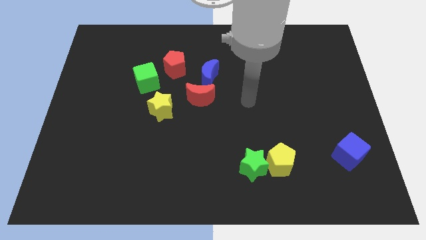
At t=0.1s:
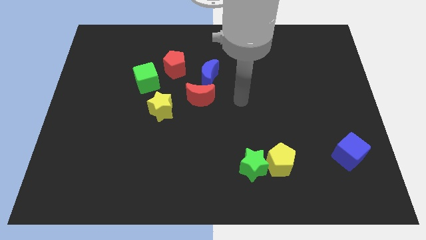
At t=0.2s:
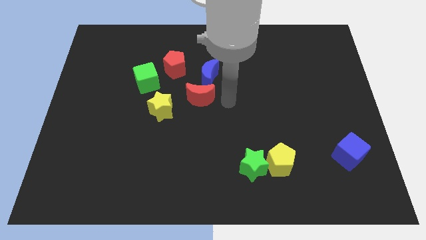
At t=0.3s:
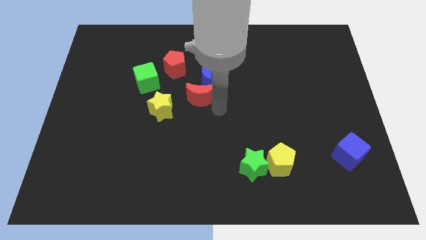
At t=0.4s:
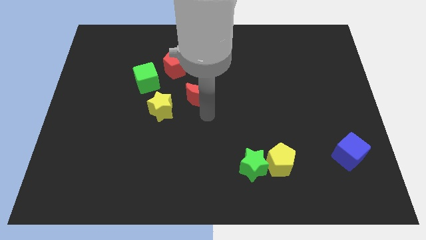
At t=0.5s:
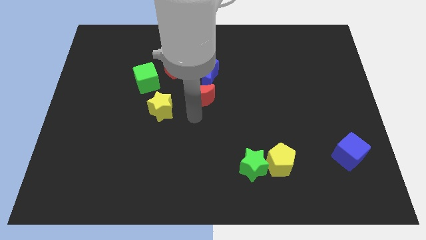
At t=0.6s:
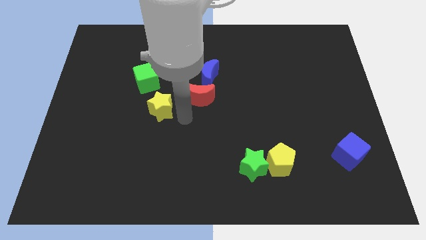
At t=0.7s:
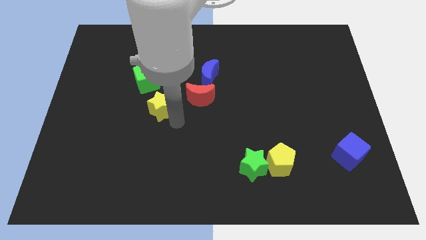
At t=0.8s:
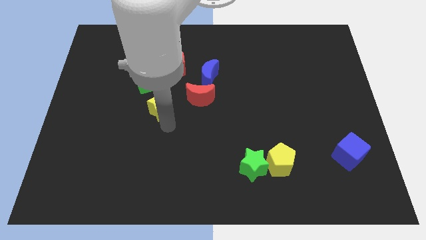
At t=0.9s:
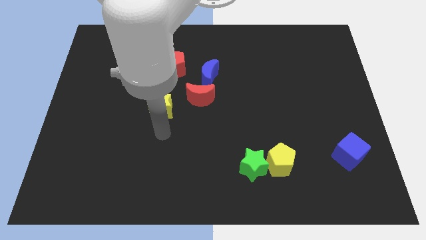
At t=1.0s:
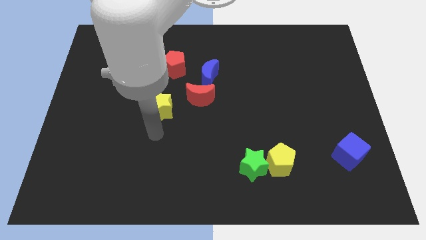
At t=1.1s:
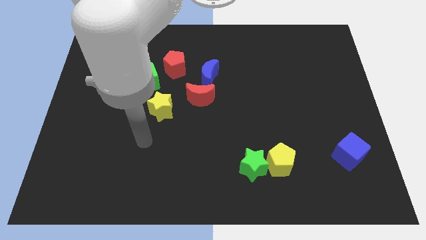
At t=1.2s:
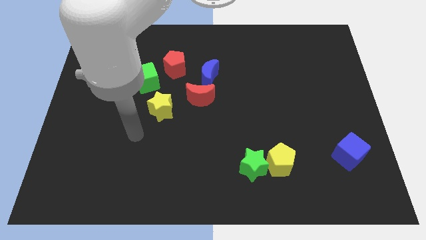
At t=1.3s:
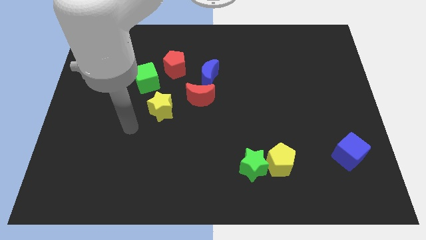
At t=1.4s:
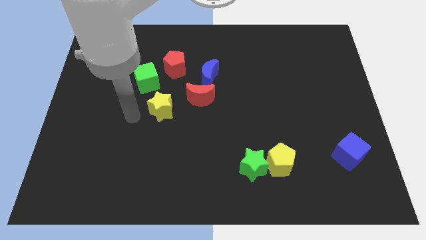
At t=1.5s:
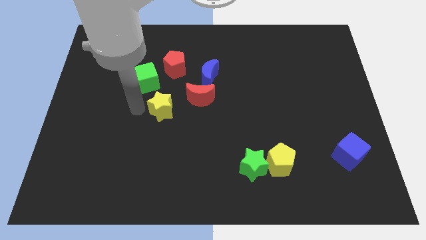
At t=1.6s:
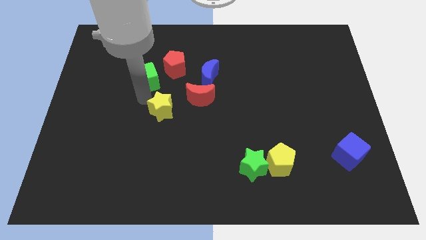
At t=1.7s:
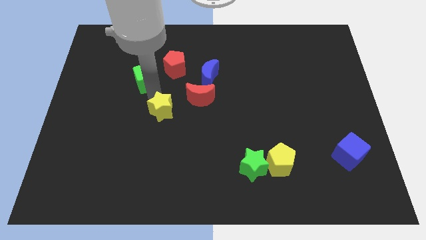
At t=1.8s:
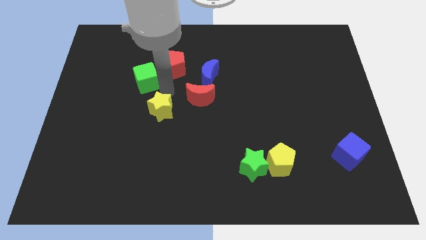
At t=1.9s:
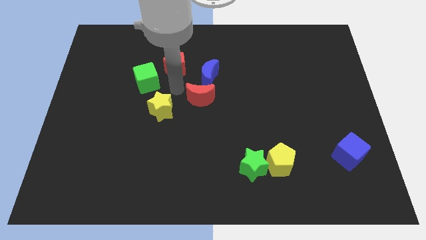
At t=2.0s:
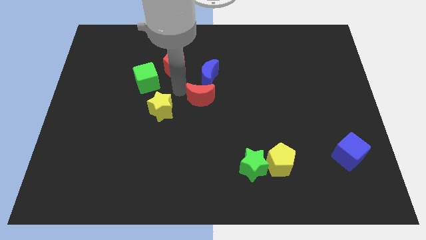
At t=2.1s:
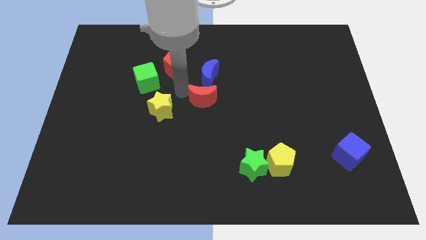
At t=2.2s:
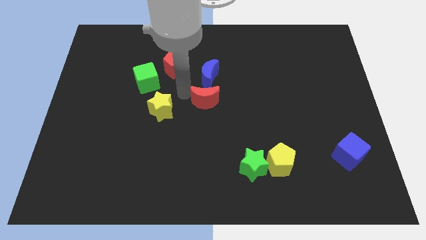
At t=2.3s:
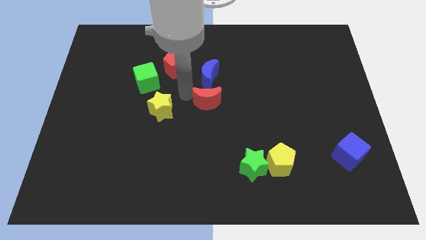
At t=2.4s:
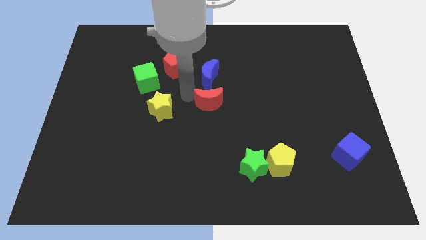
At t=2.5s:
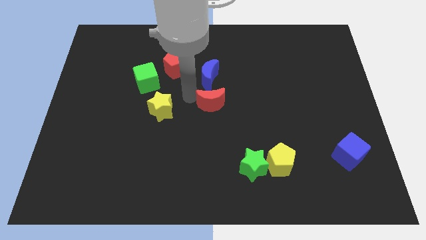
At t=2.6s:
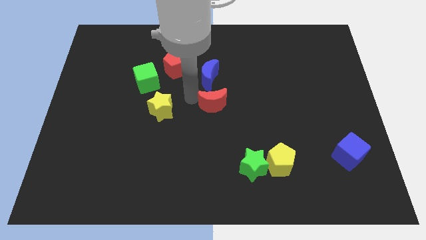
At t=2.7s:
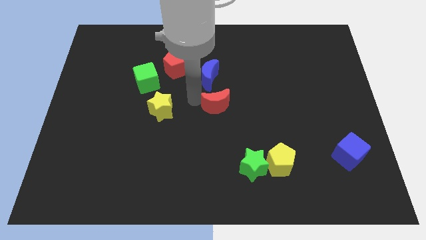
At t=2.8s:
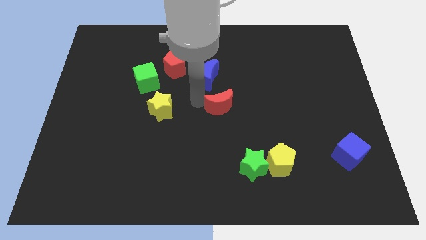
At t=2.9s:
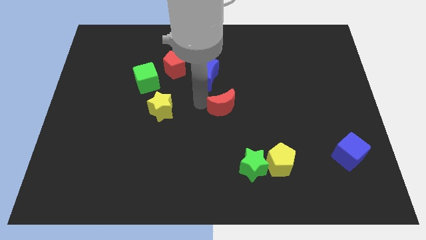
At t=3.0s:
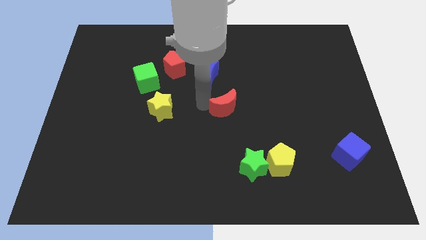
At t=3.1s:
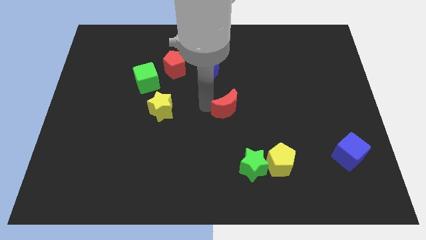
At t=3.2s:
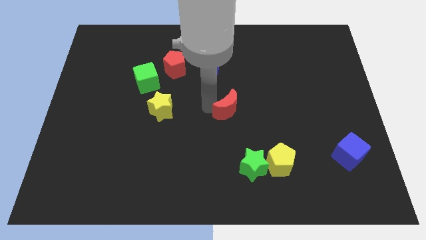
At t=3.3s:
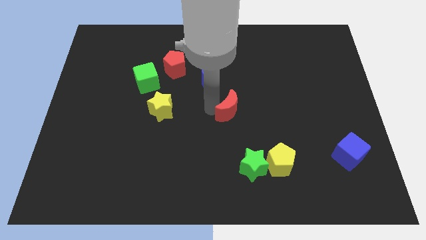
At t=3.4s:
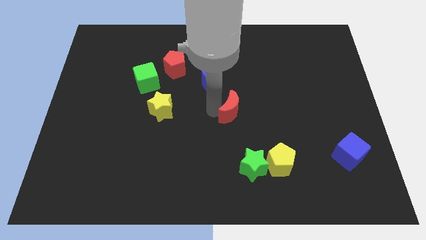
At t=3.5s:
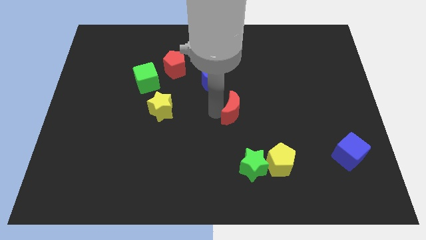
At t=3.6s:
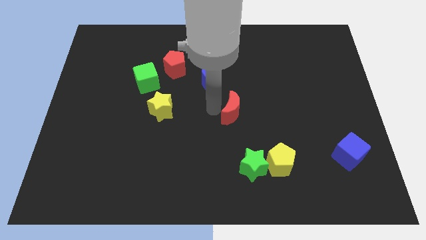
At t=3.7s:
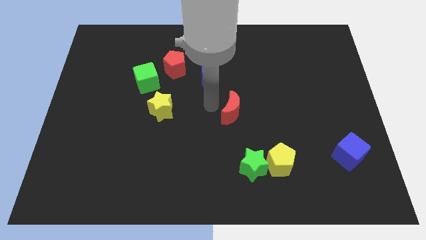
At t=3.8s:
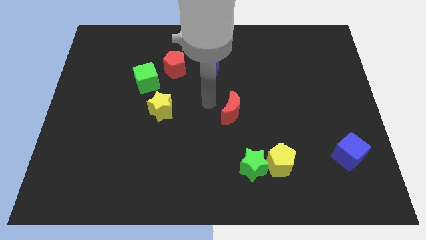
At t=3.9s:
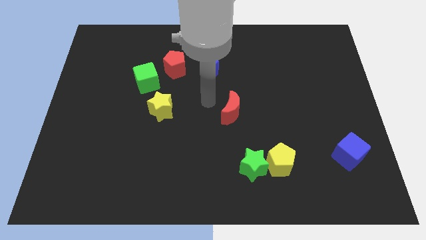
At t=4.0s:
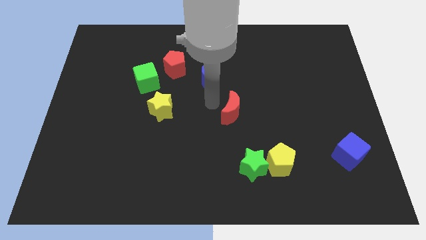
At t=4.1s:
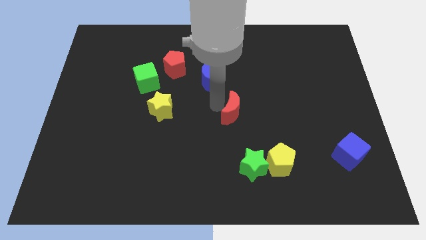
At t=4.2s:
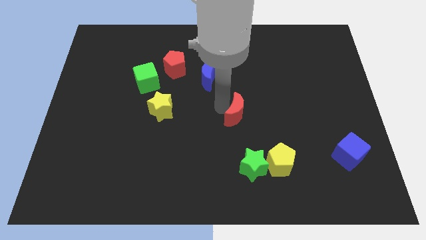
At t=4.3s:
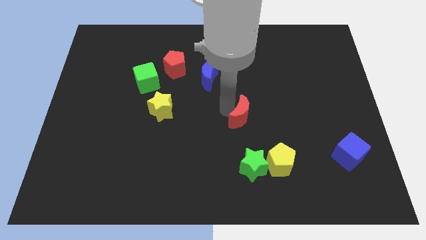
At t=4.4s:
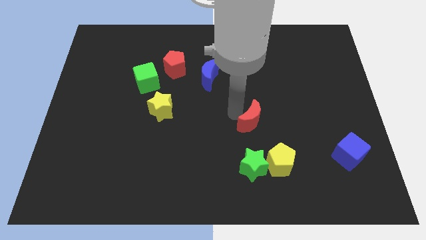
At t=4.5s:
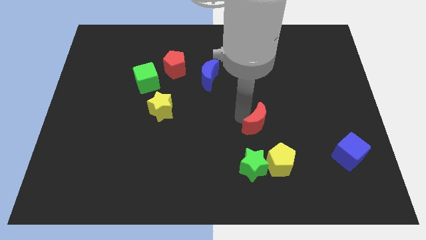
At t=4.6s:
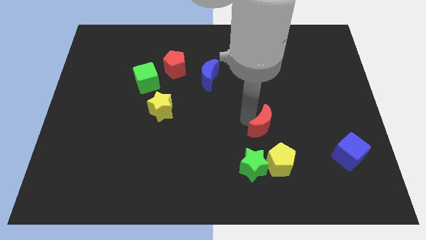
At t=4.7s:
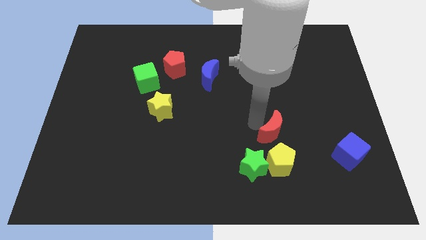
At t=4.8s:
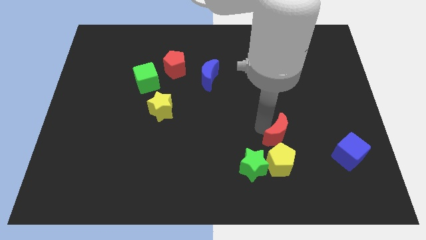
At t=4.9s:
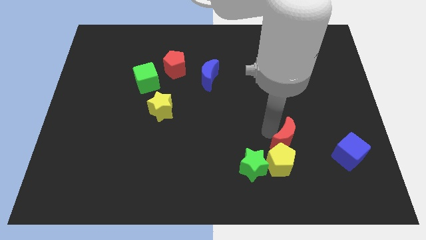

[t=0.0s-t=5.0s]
slide the red moon to the top right of the yellow pentagon

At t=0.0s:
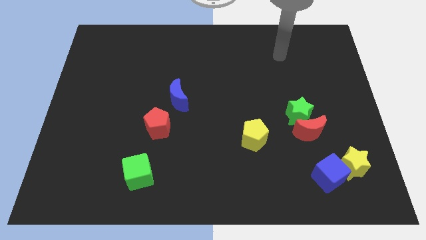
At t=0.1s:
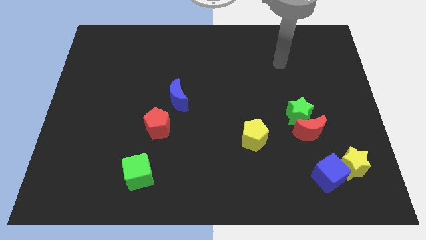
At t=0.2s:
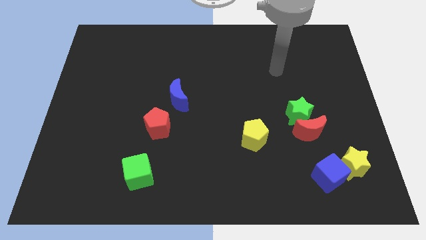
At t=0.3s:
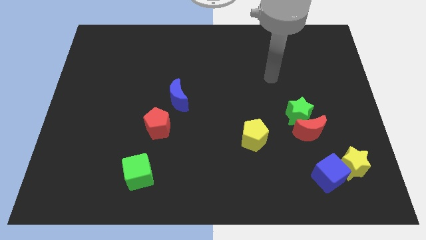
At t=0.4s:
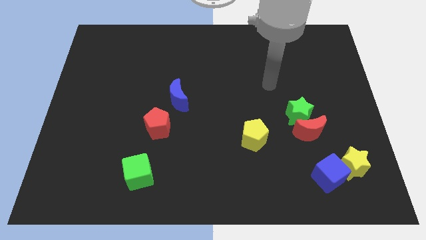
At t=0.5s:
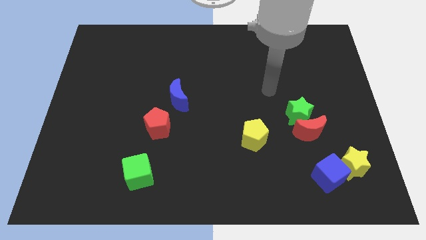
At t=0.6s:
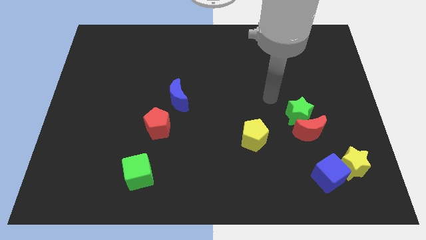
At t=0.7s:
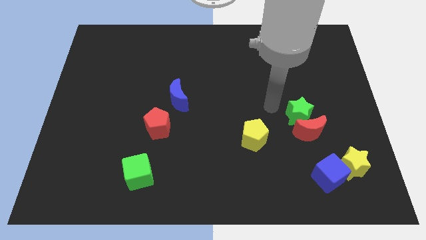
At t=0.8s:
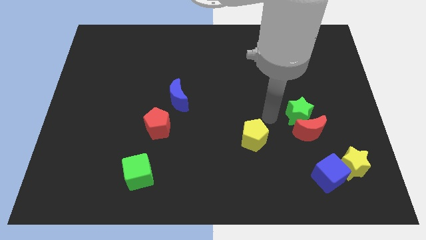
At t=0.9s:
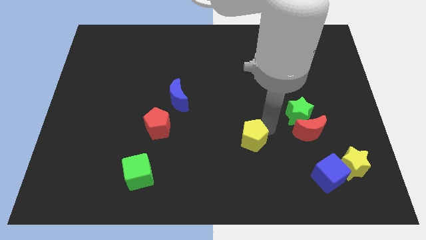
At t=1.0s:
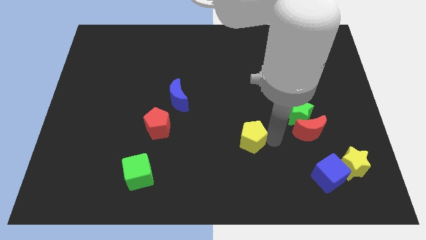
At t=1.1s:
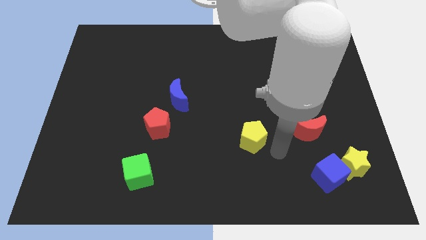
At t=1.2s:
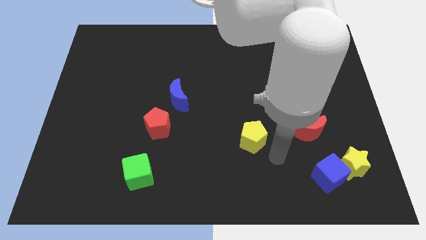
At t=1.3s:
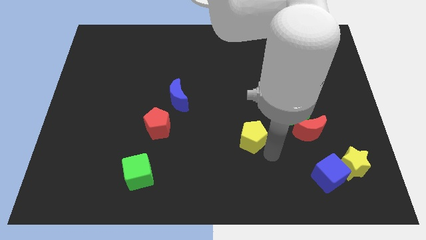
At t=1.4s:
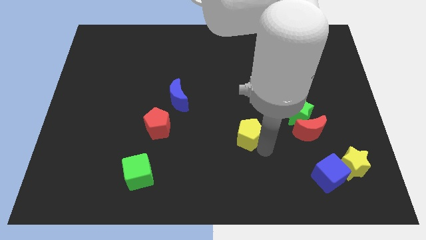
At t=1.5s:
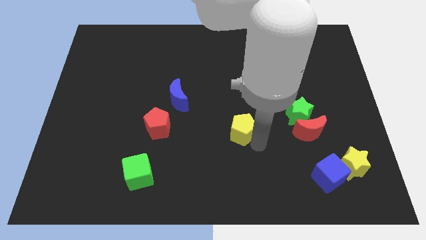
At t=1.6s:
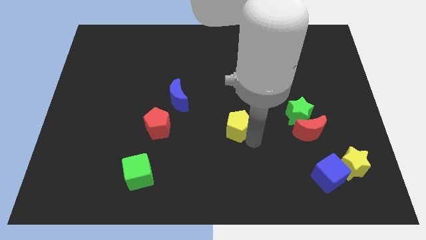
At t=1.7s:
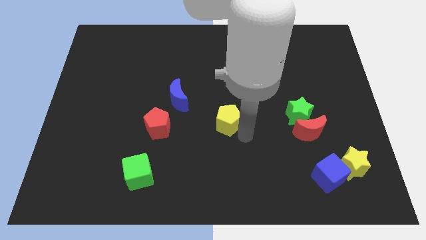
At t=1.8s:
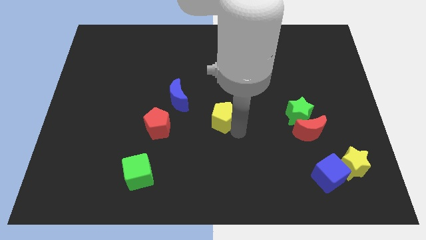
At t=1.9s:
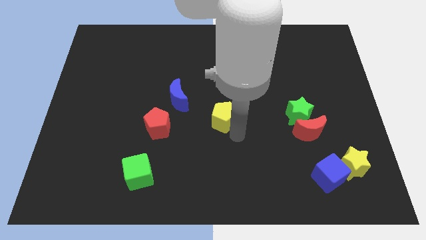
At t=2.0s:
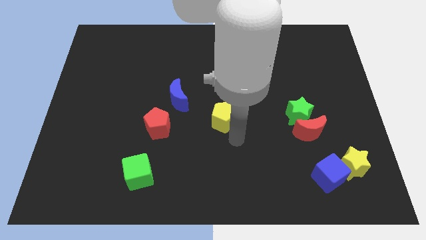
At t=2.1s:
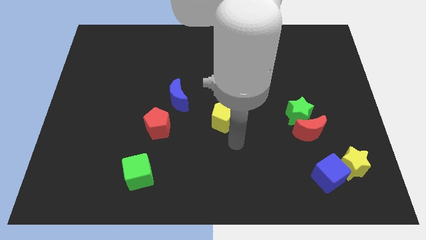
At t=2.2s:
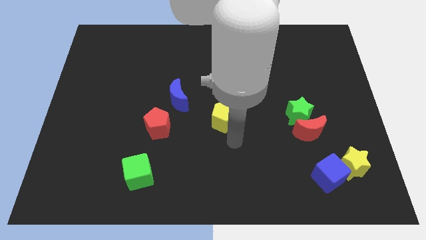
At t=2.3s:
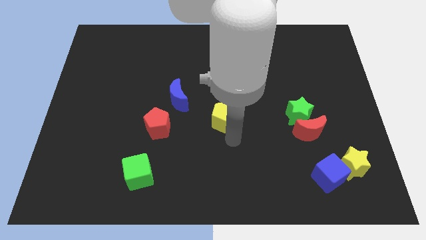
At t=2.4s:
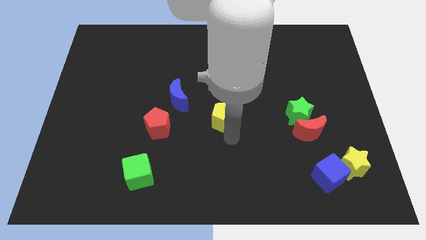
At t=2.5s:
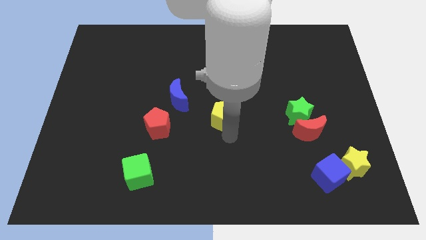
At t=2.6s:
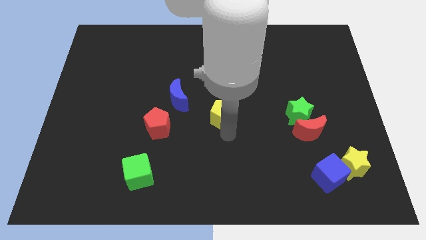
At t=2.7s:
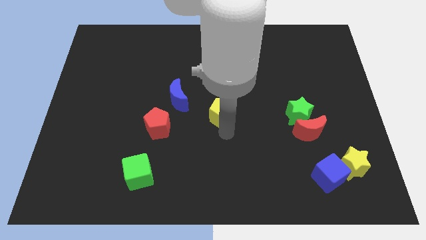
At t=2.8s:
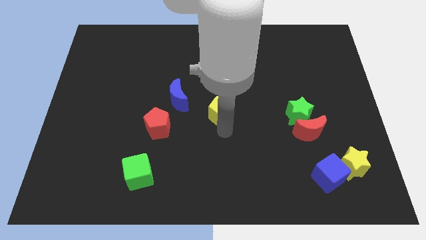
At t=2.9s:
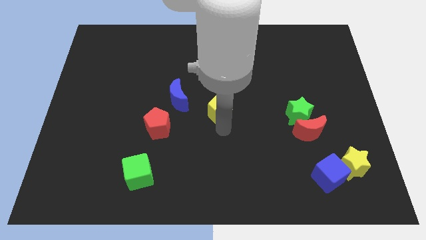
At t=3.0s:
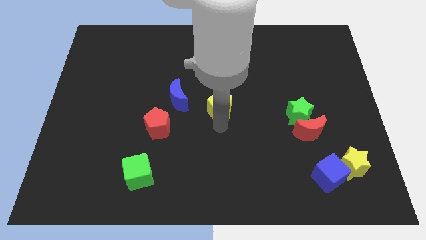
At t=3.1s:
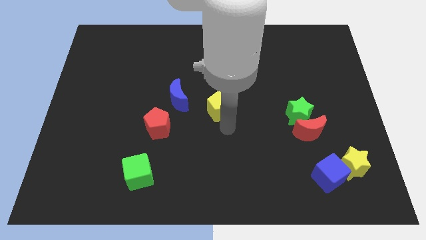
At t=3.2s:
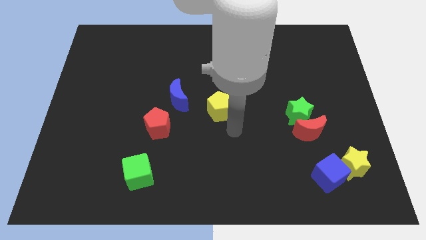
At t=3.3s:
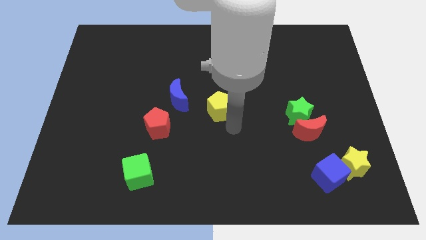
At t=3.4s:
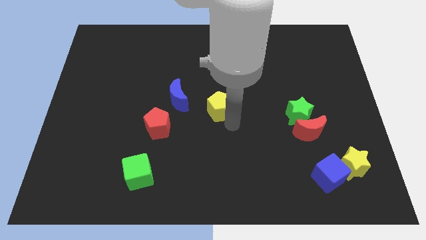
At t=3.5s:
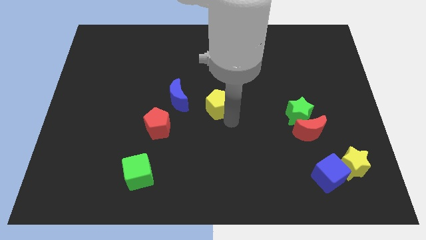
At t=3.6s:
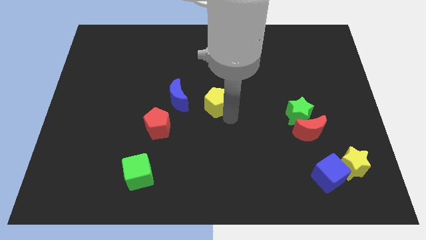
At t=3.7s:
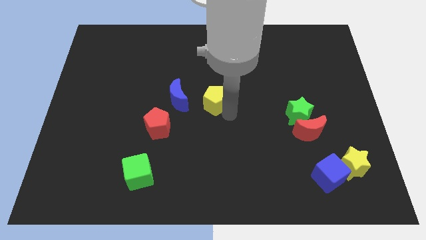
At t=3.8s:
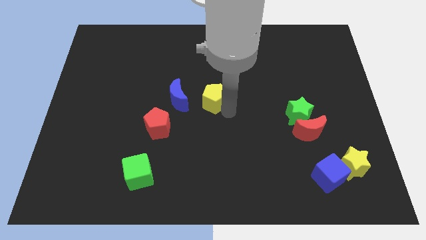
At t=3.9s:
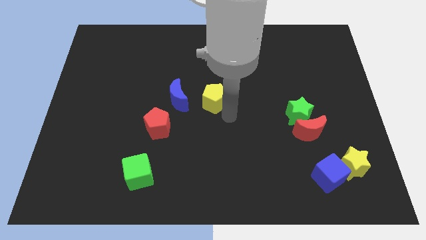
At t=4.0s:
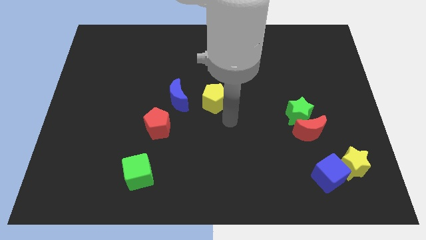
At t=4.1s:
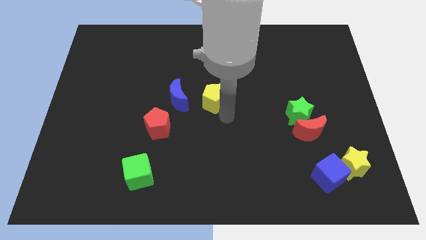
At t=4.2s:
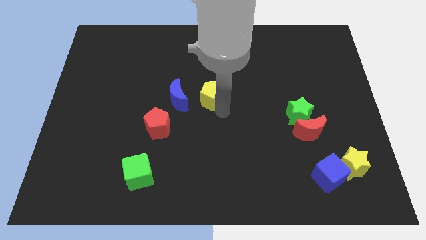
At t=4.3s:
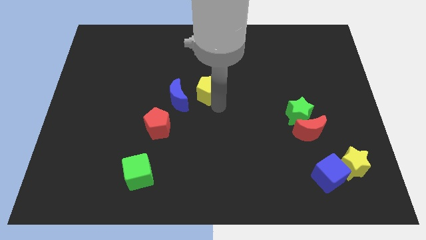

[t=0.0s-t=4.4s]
slide the yellow pentagon to the top right side of the blue moon
